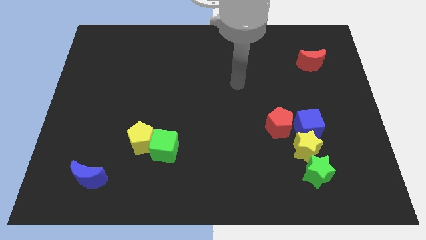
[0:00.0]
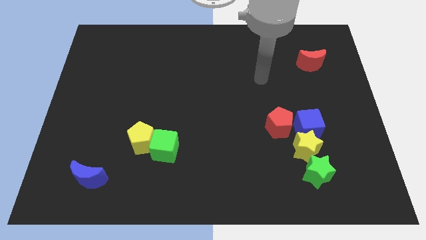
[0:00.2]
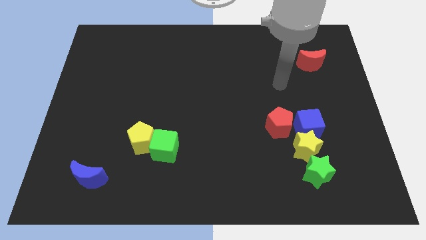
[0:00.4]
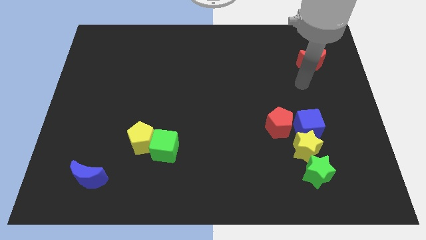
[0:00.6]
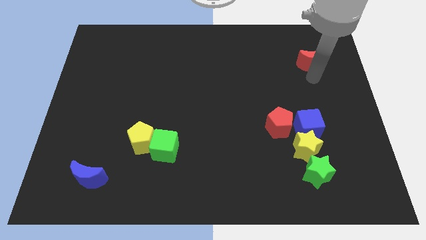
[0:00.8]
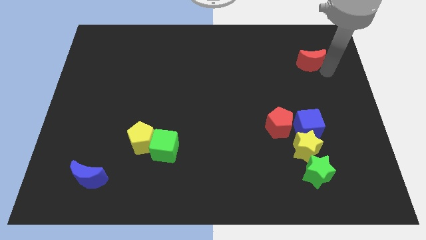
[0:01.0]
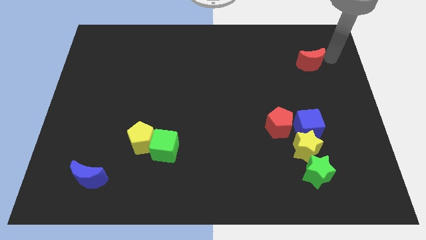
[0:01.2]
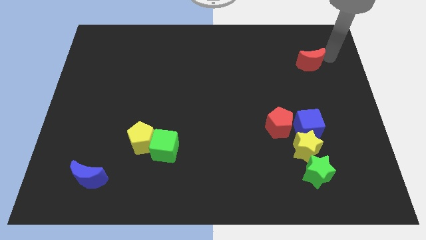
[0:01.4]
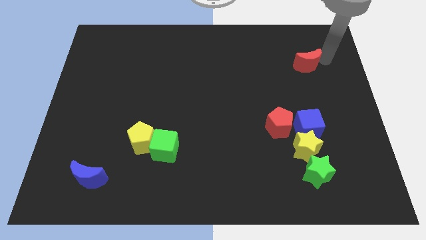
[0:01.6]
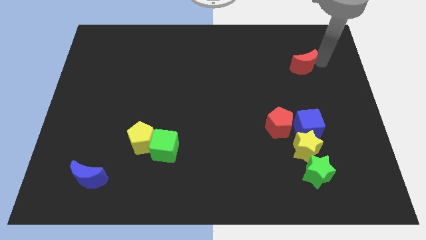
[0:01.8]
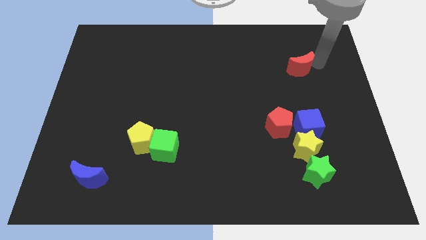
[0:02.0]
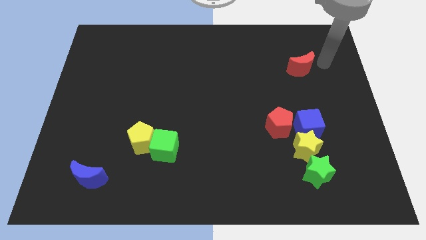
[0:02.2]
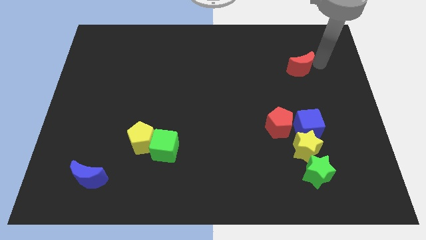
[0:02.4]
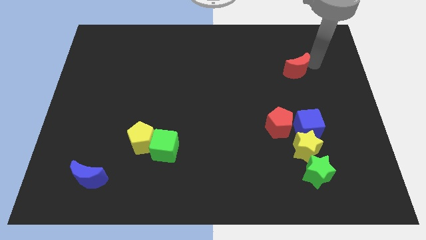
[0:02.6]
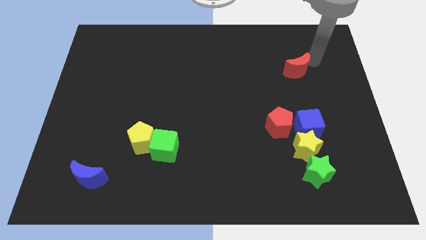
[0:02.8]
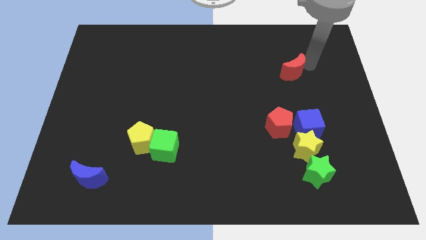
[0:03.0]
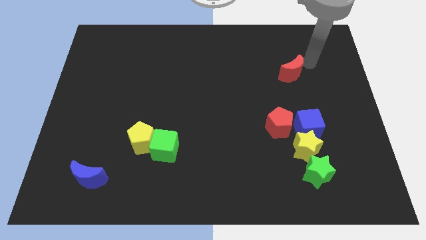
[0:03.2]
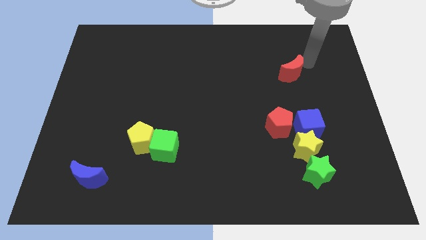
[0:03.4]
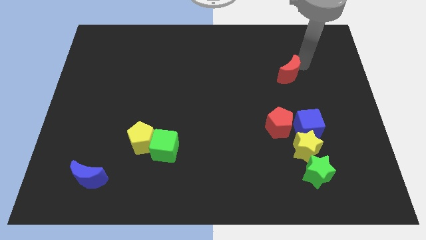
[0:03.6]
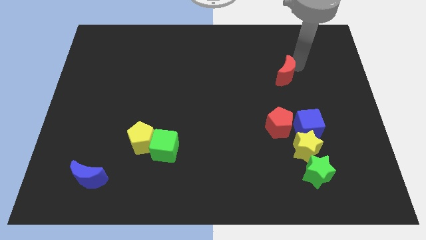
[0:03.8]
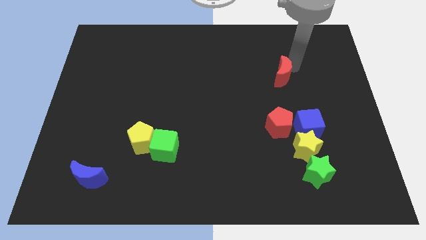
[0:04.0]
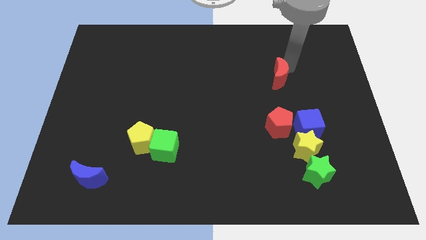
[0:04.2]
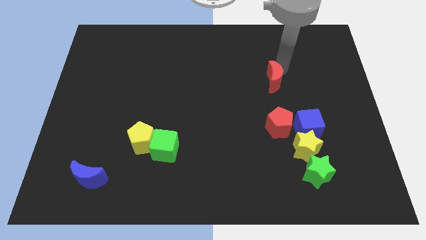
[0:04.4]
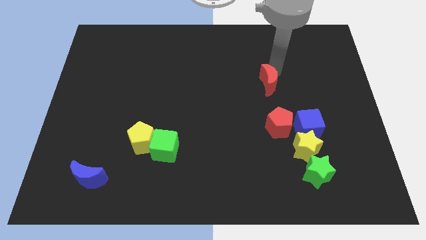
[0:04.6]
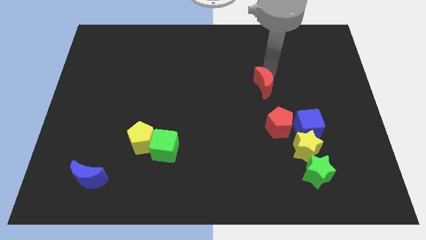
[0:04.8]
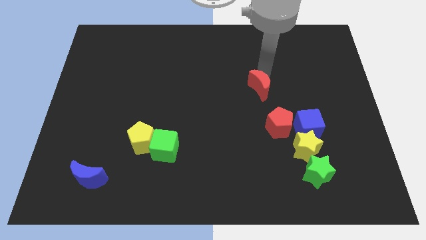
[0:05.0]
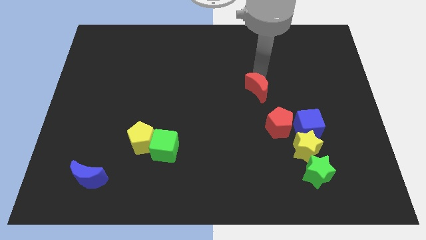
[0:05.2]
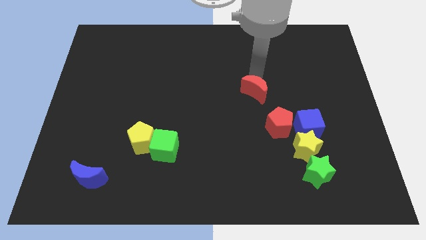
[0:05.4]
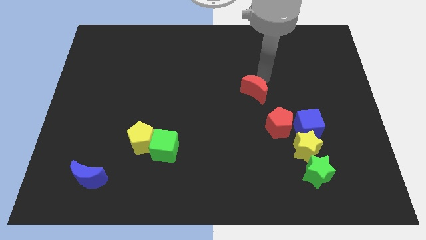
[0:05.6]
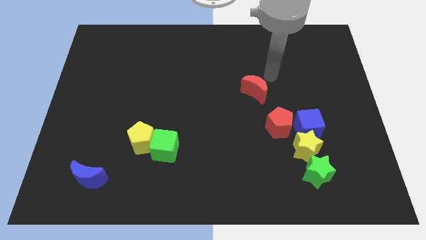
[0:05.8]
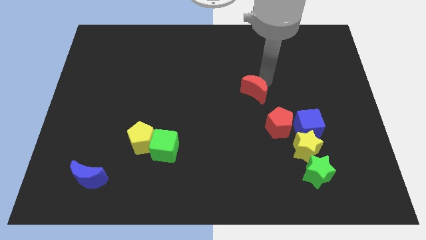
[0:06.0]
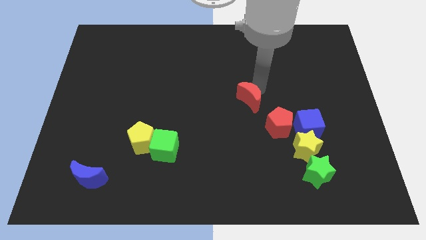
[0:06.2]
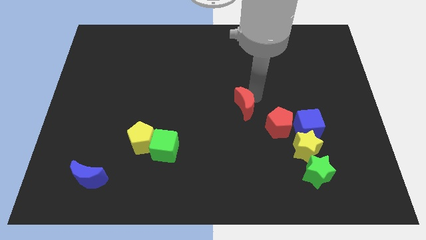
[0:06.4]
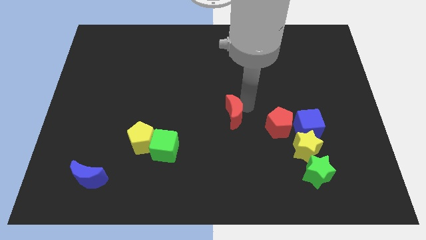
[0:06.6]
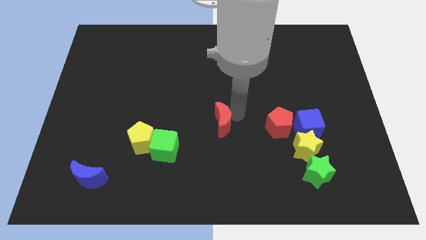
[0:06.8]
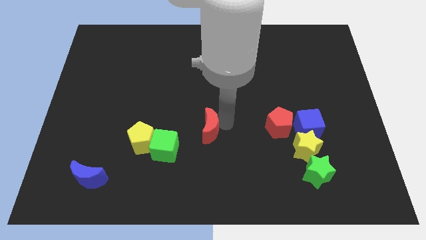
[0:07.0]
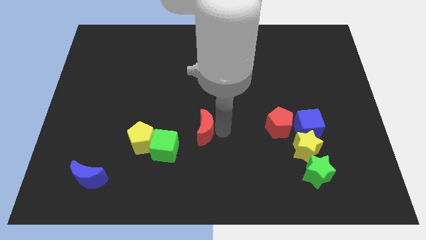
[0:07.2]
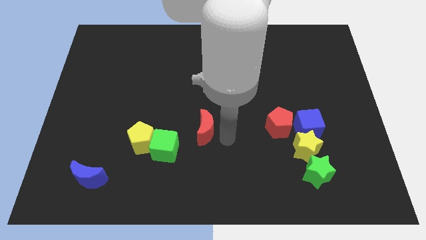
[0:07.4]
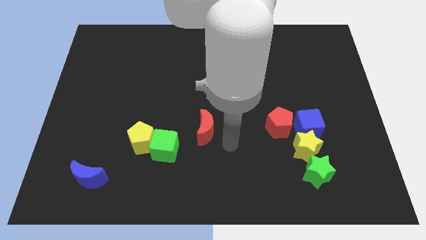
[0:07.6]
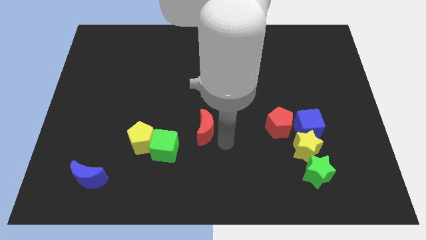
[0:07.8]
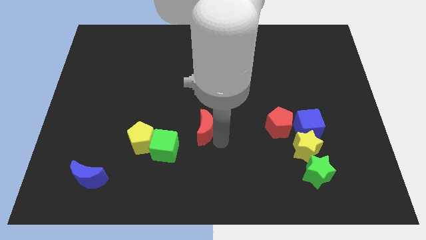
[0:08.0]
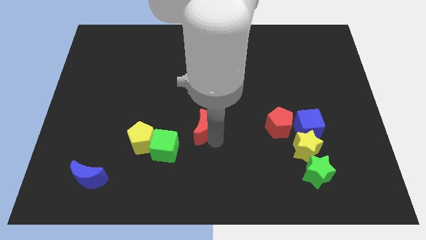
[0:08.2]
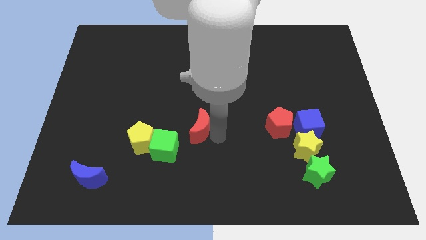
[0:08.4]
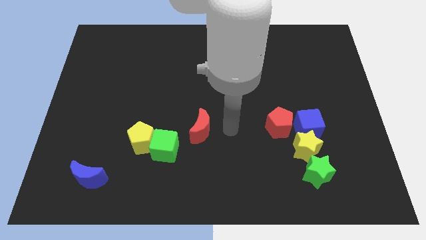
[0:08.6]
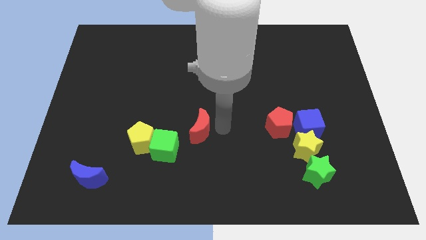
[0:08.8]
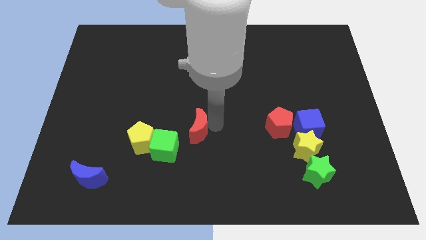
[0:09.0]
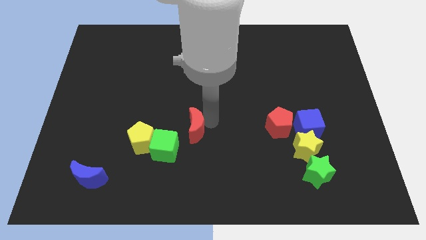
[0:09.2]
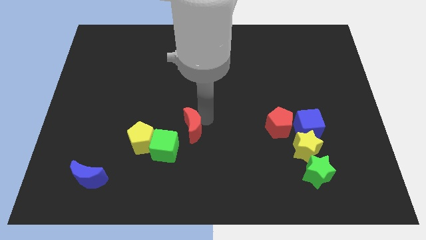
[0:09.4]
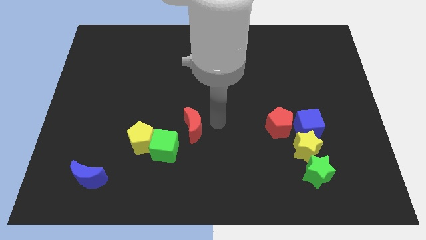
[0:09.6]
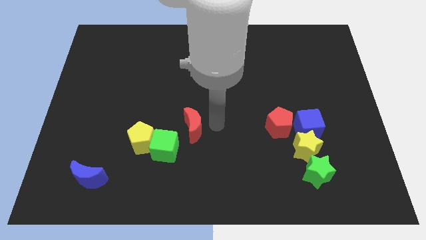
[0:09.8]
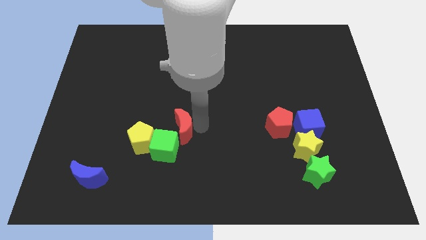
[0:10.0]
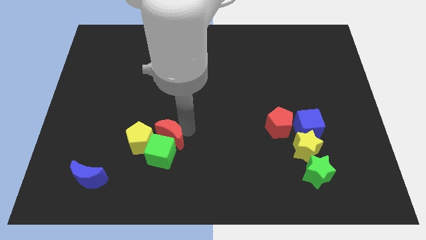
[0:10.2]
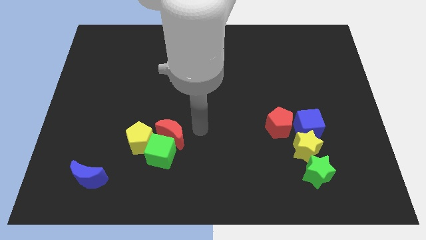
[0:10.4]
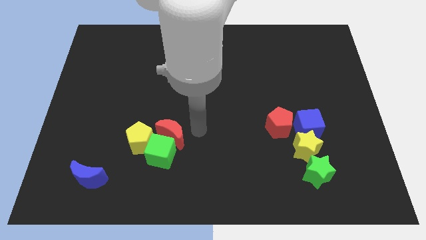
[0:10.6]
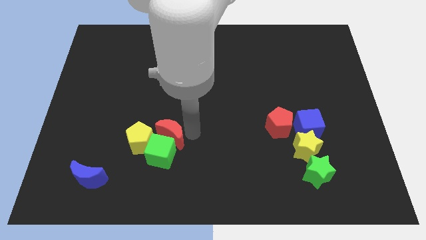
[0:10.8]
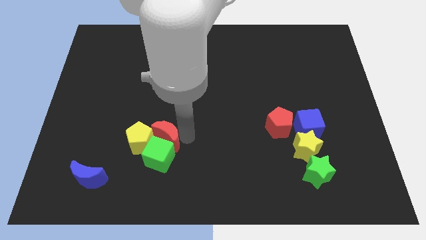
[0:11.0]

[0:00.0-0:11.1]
put the red moon to the yellow pentagon

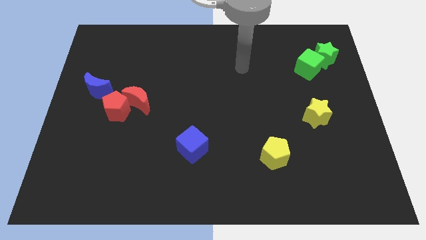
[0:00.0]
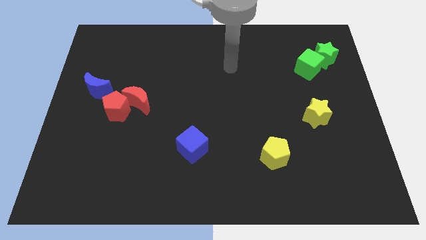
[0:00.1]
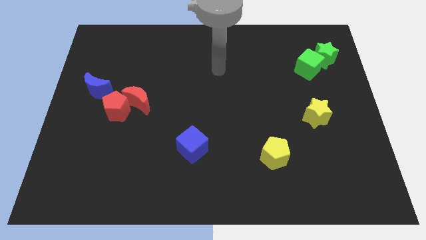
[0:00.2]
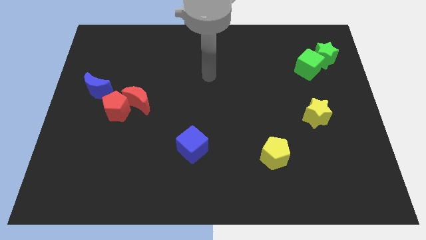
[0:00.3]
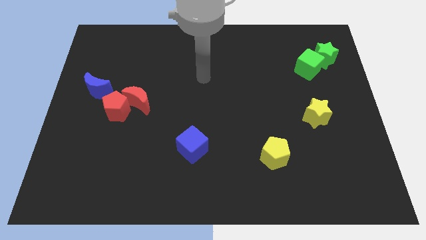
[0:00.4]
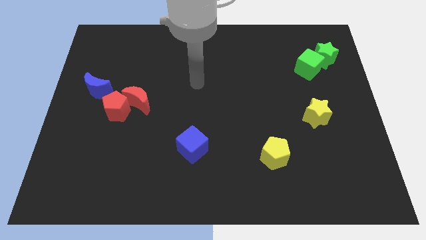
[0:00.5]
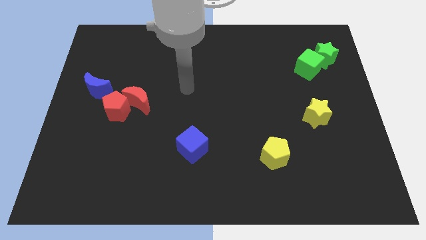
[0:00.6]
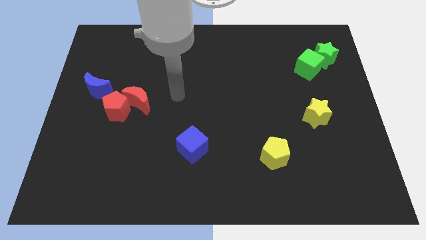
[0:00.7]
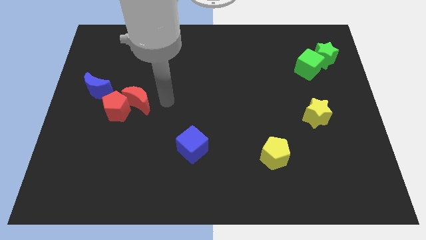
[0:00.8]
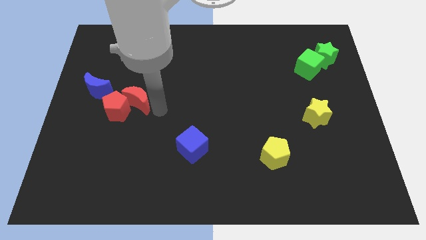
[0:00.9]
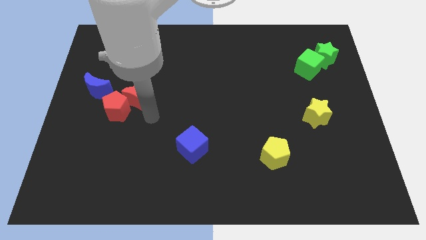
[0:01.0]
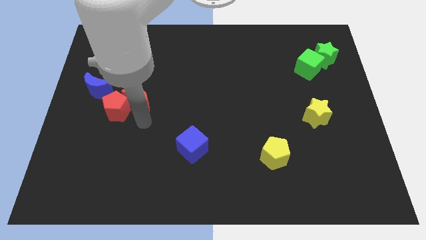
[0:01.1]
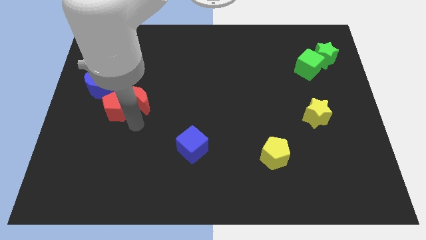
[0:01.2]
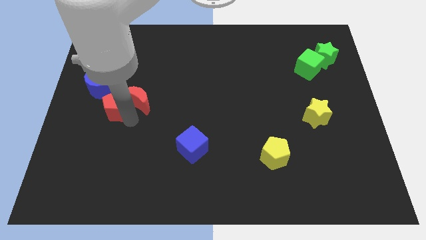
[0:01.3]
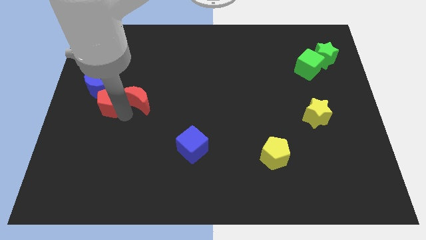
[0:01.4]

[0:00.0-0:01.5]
slide the red pentagon close to the blue moon
